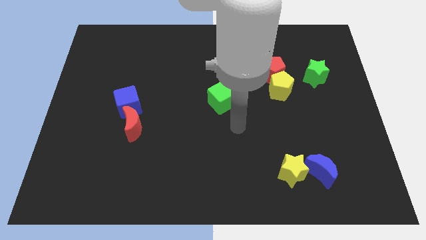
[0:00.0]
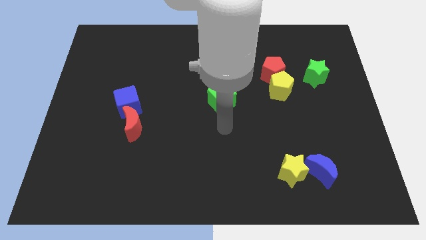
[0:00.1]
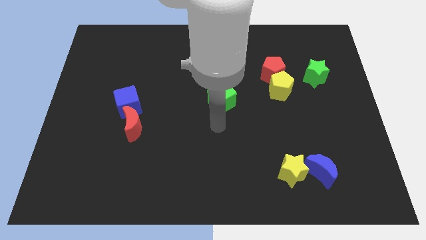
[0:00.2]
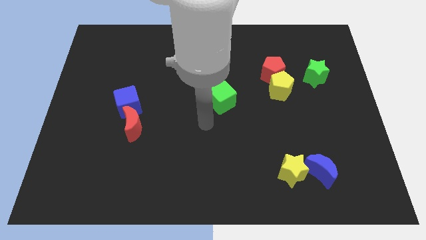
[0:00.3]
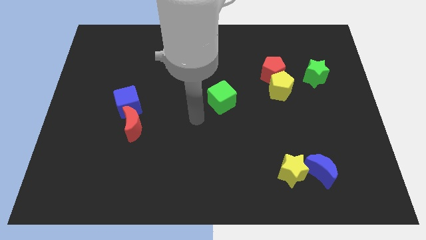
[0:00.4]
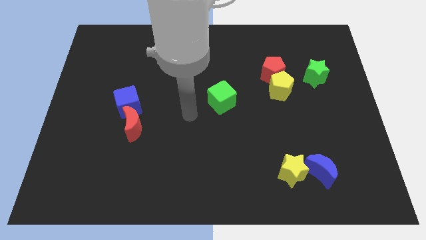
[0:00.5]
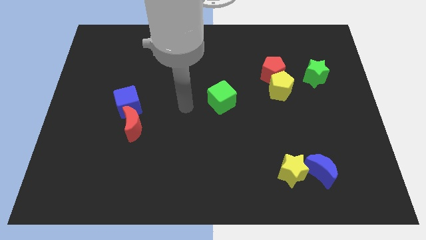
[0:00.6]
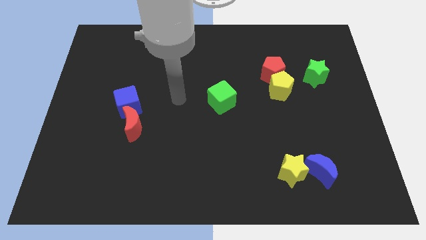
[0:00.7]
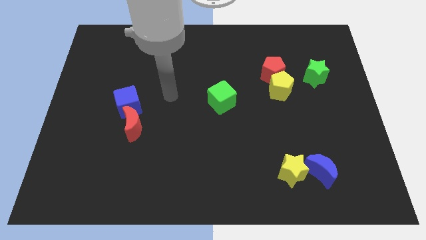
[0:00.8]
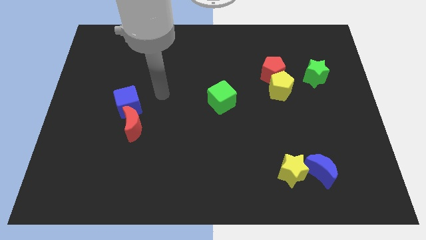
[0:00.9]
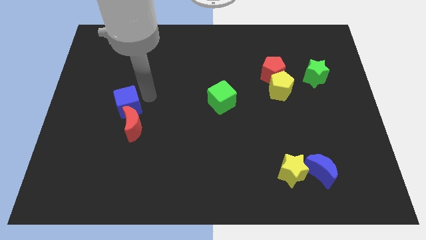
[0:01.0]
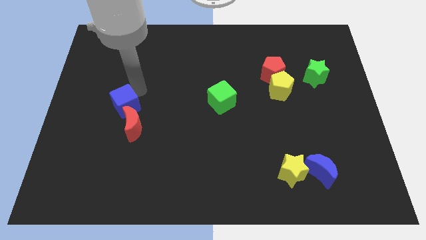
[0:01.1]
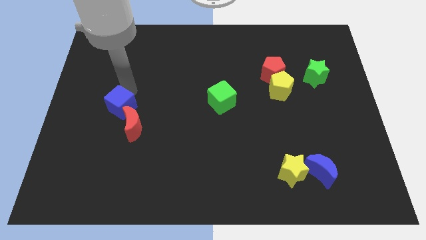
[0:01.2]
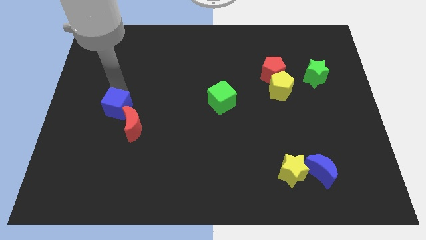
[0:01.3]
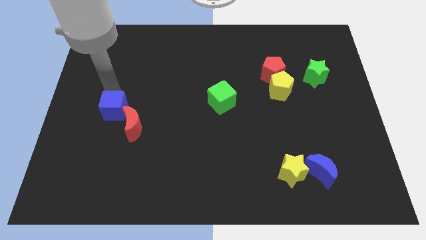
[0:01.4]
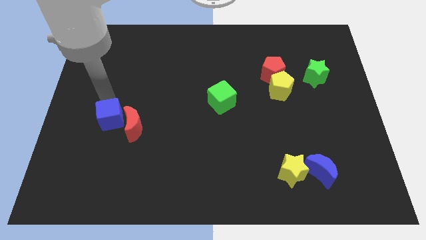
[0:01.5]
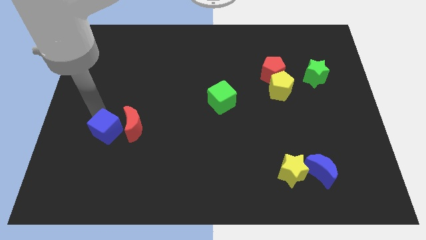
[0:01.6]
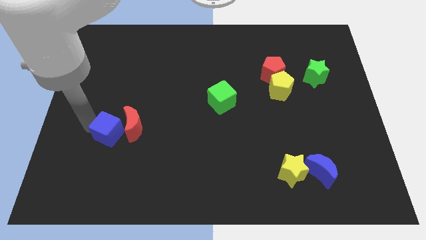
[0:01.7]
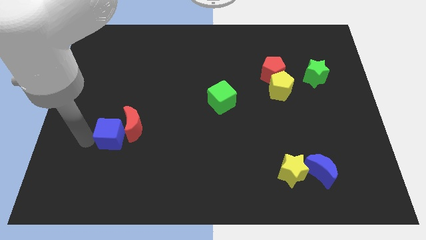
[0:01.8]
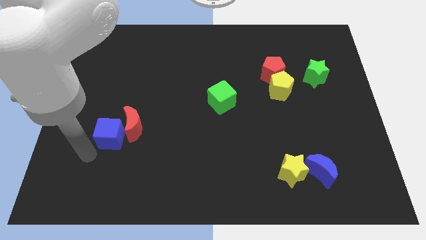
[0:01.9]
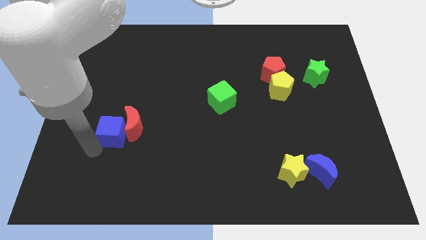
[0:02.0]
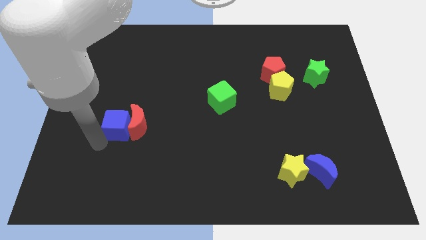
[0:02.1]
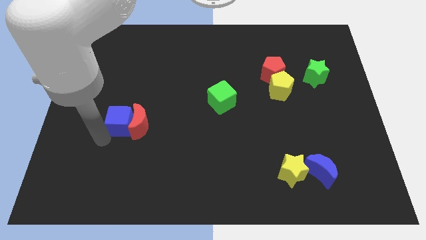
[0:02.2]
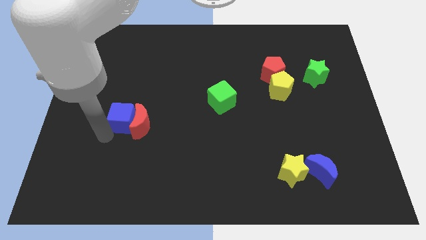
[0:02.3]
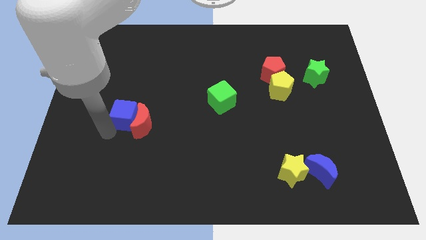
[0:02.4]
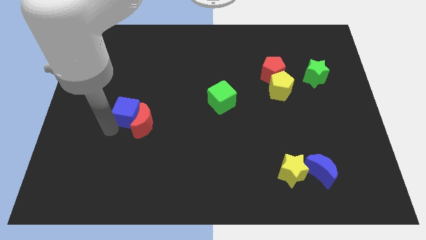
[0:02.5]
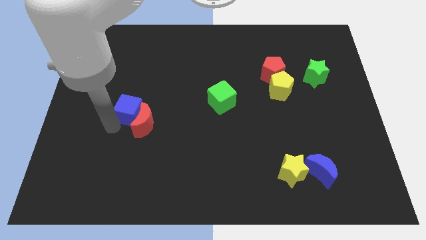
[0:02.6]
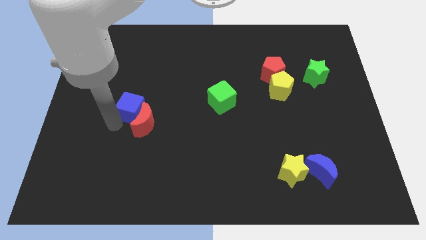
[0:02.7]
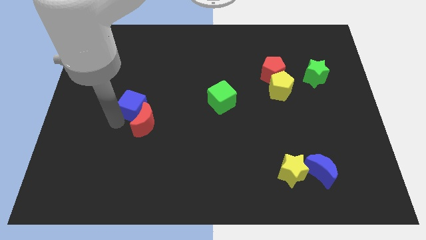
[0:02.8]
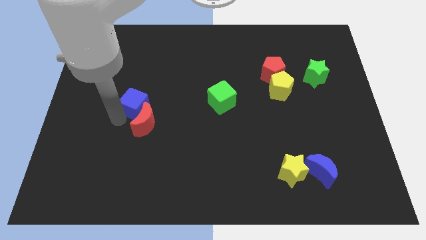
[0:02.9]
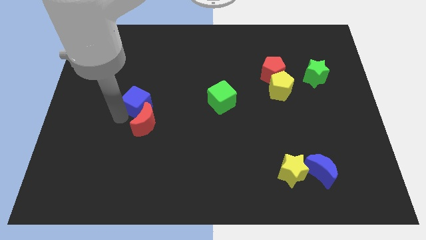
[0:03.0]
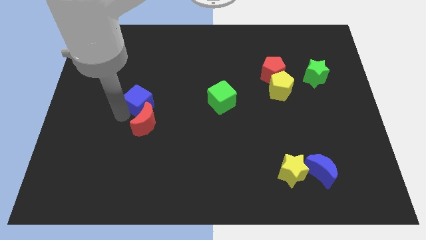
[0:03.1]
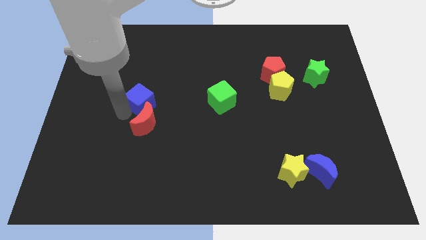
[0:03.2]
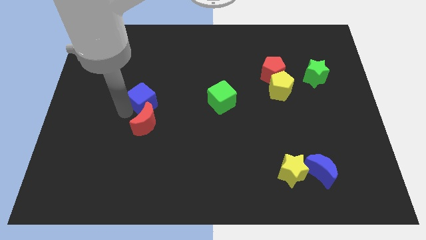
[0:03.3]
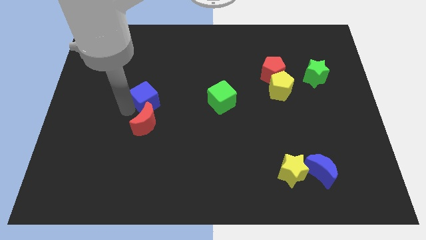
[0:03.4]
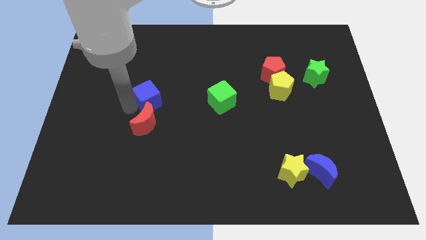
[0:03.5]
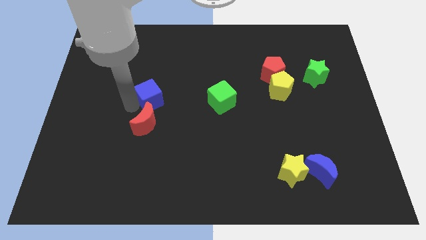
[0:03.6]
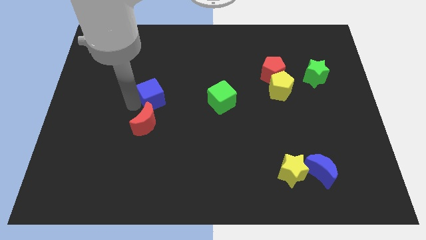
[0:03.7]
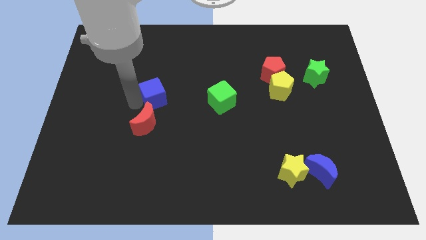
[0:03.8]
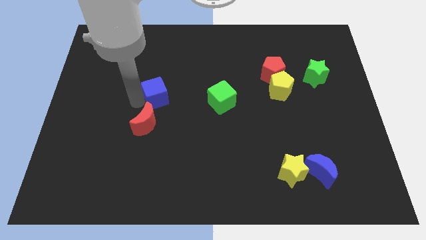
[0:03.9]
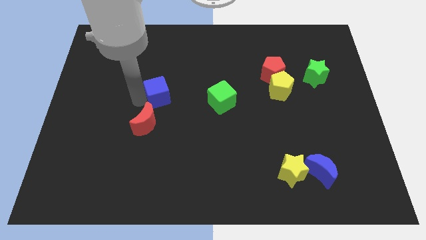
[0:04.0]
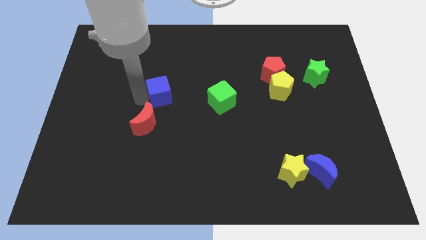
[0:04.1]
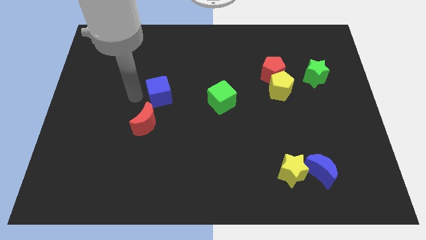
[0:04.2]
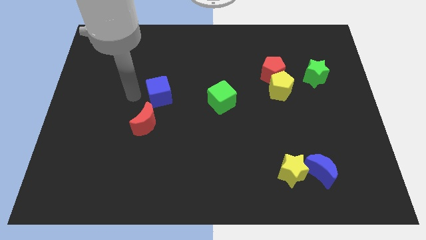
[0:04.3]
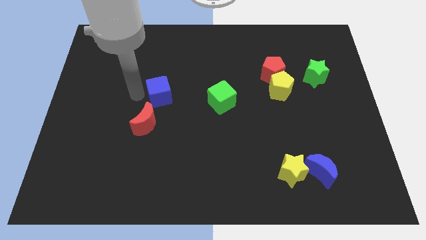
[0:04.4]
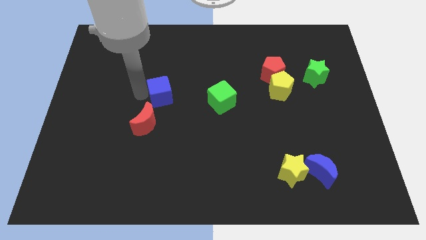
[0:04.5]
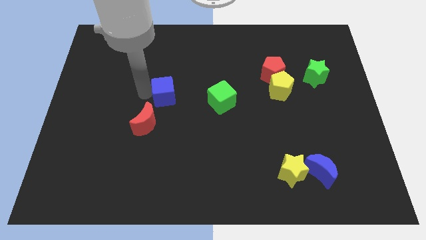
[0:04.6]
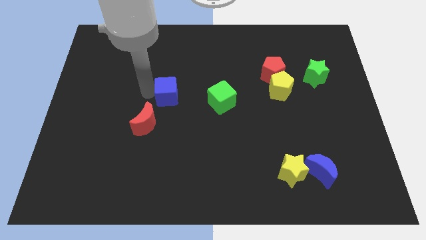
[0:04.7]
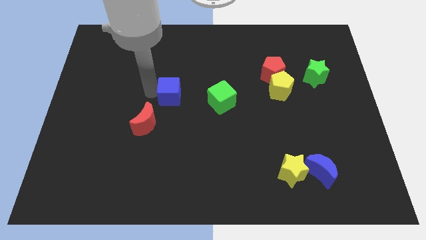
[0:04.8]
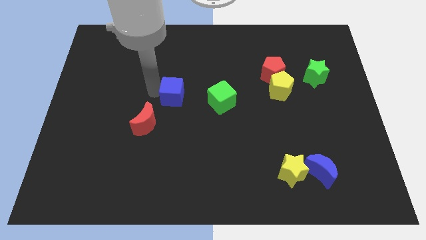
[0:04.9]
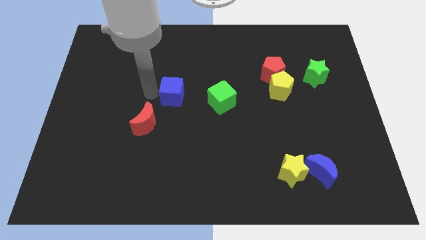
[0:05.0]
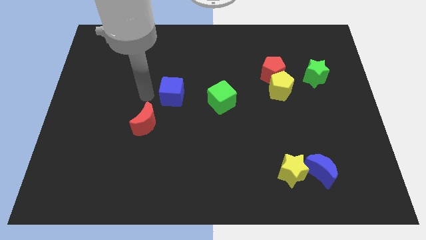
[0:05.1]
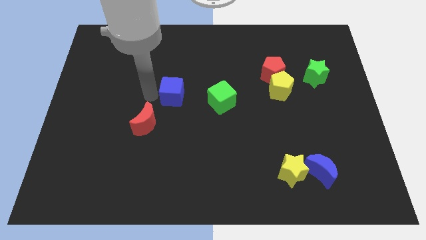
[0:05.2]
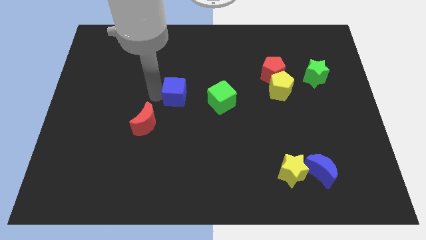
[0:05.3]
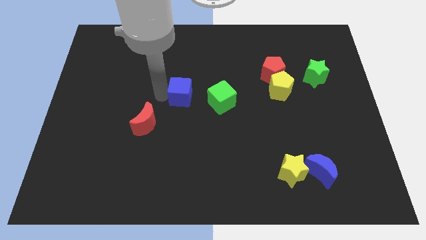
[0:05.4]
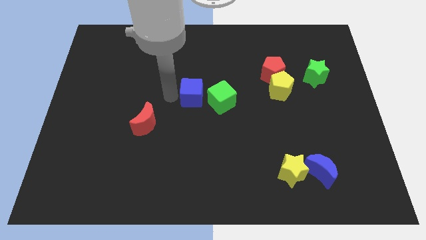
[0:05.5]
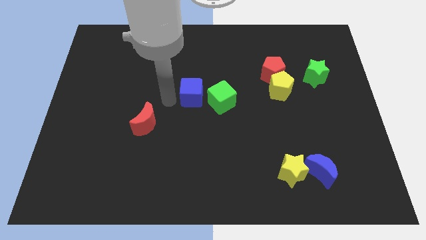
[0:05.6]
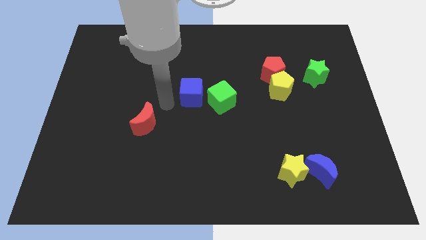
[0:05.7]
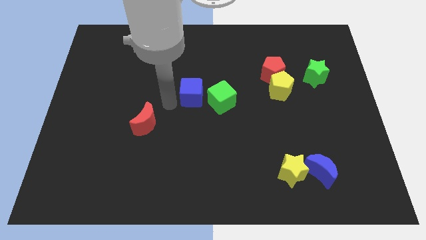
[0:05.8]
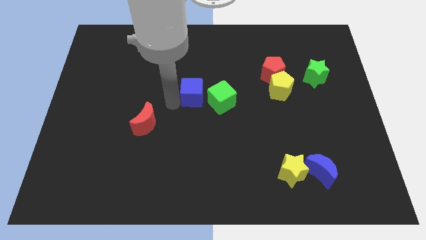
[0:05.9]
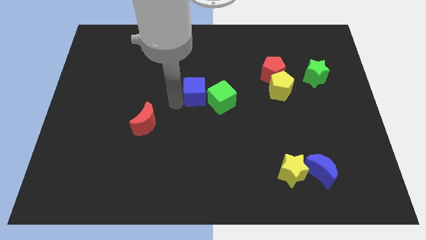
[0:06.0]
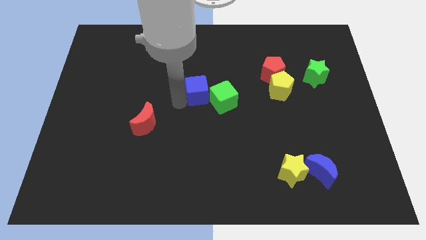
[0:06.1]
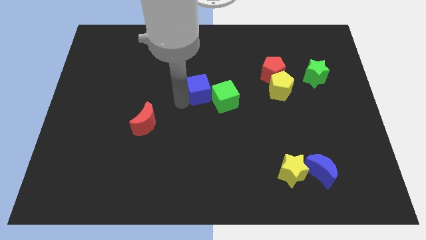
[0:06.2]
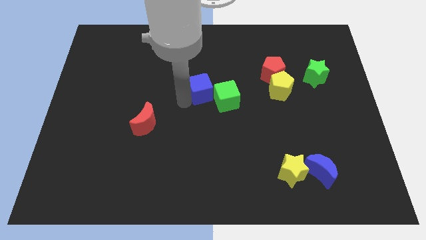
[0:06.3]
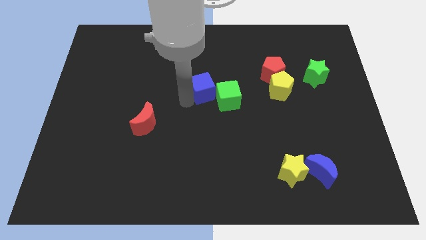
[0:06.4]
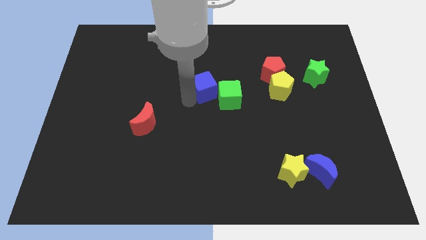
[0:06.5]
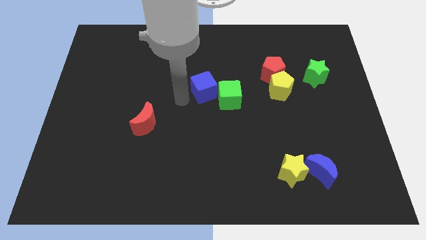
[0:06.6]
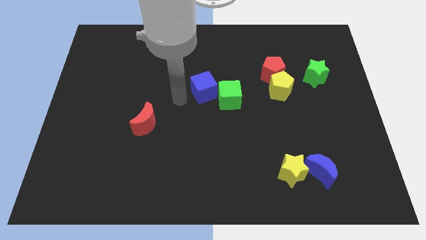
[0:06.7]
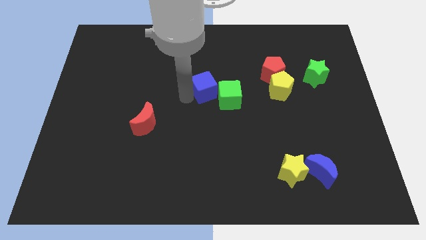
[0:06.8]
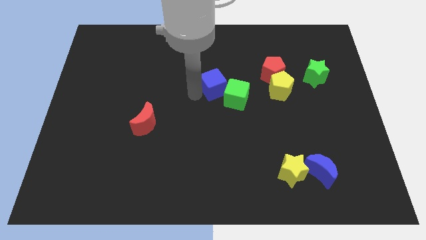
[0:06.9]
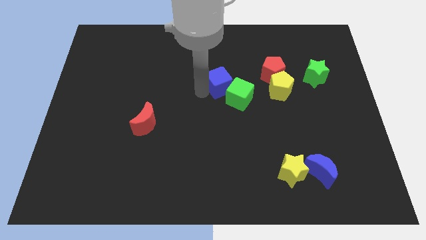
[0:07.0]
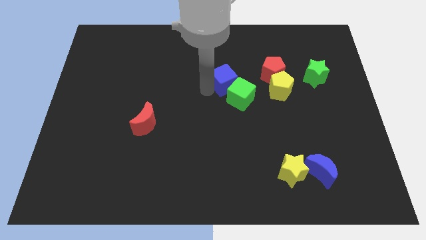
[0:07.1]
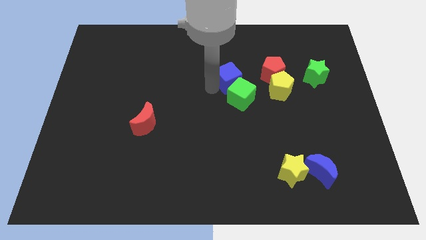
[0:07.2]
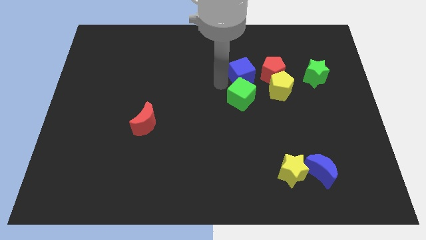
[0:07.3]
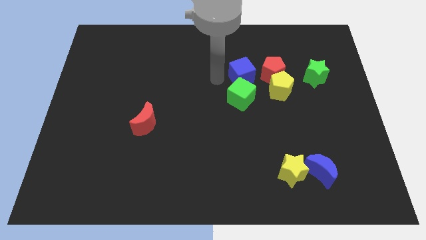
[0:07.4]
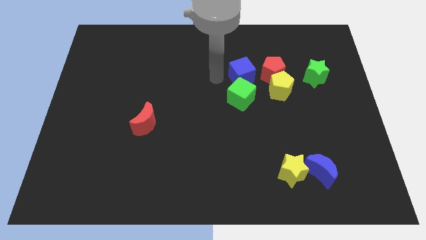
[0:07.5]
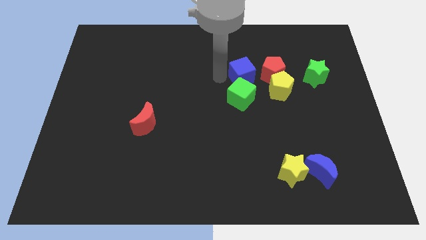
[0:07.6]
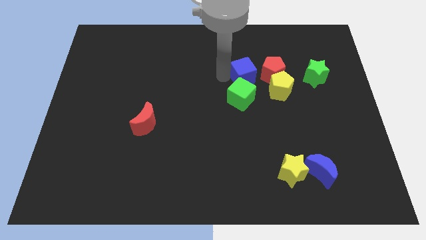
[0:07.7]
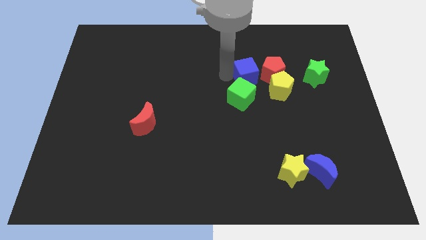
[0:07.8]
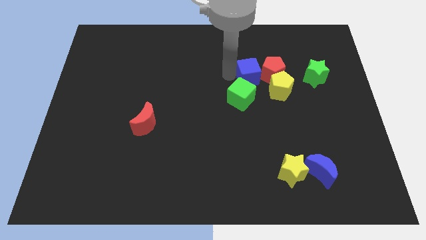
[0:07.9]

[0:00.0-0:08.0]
put the blue cube next to the red pentagon
